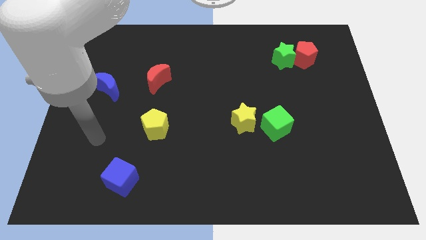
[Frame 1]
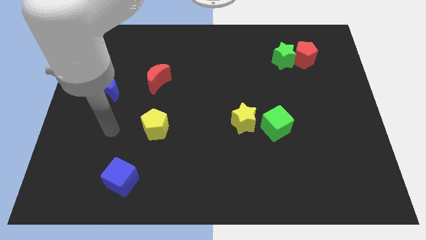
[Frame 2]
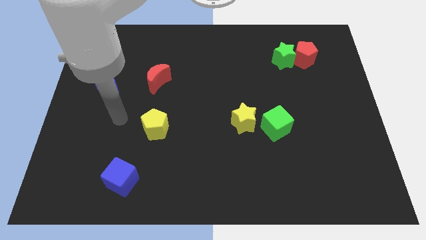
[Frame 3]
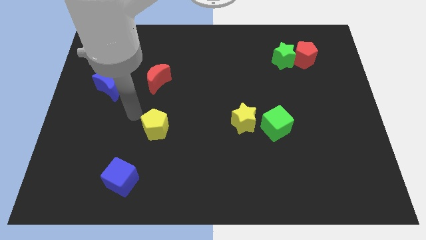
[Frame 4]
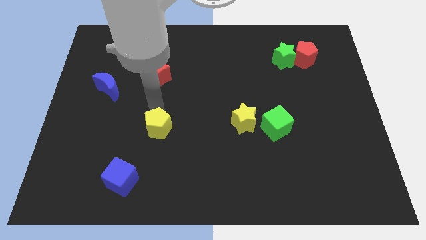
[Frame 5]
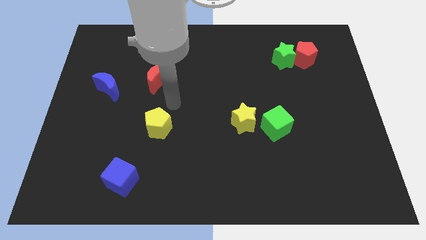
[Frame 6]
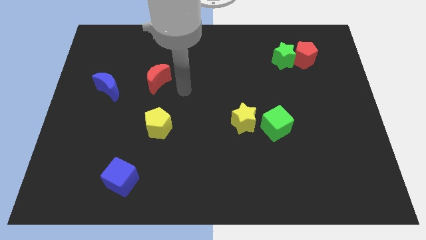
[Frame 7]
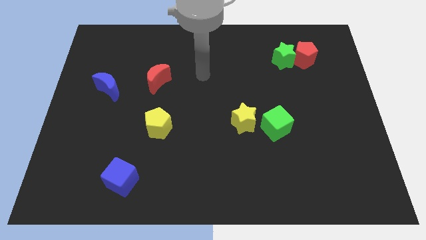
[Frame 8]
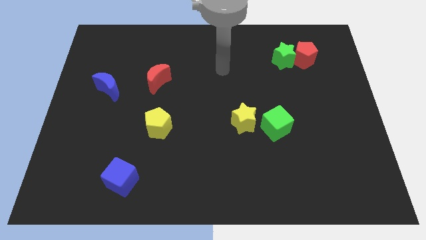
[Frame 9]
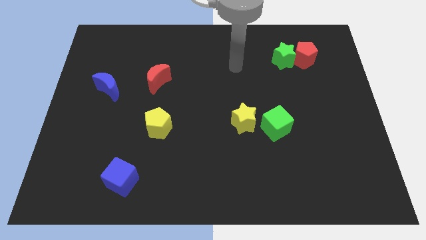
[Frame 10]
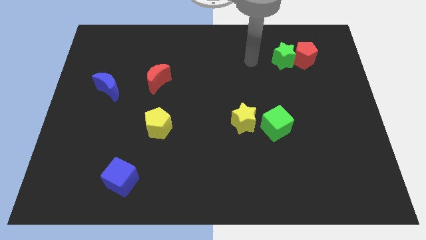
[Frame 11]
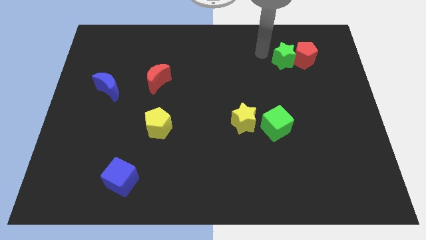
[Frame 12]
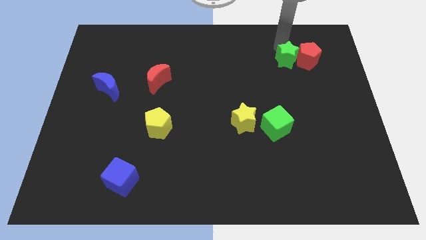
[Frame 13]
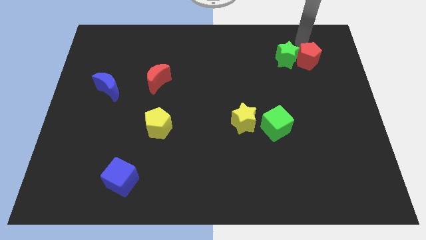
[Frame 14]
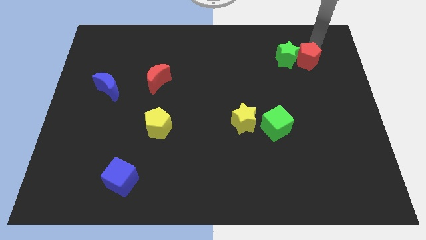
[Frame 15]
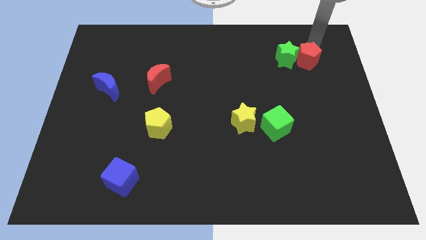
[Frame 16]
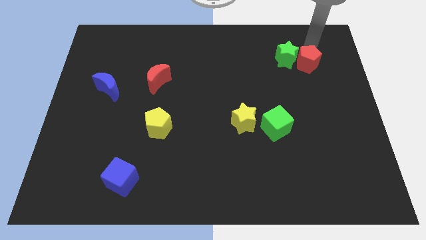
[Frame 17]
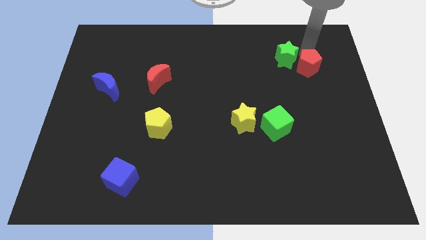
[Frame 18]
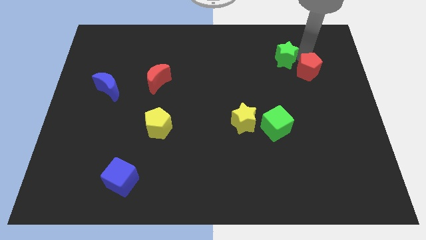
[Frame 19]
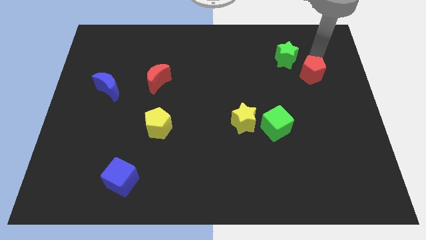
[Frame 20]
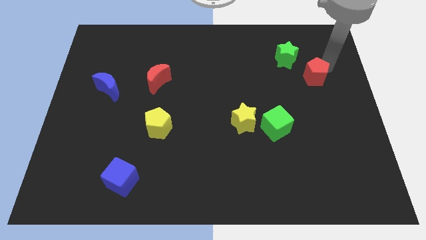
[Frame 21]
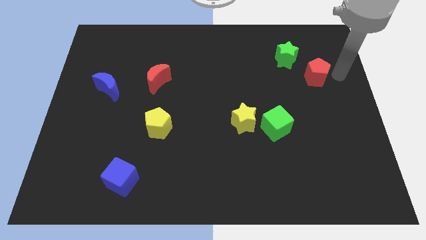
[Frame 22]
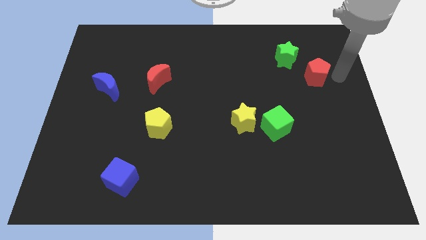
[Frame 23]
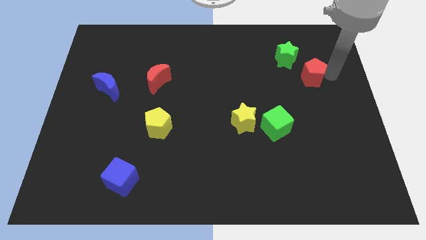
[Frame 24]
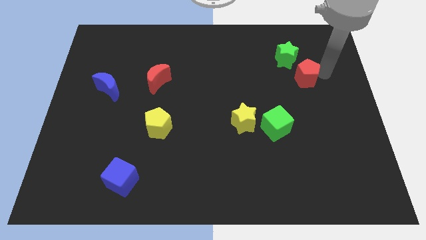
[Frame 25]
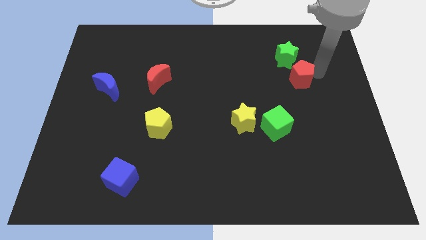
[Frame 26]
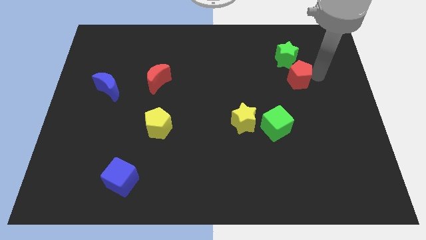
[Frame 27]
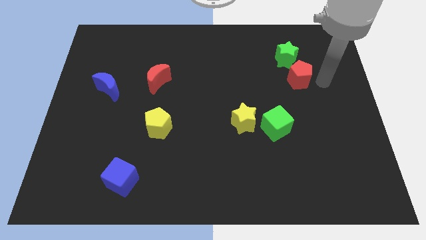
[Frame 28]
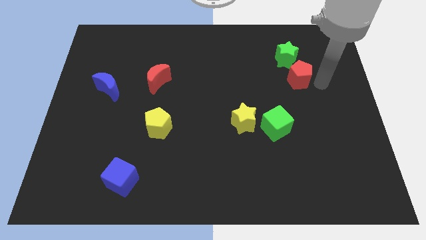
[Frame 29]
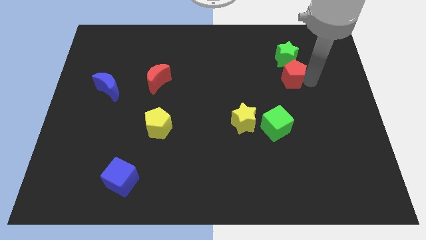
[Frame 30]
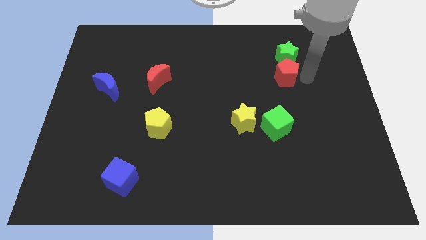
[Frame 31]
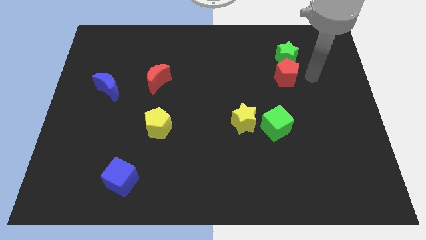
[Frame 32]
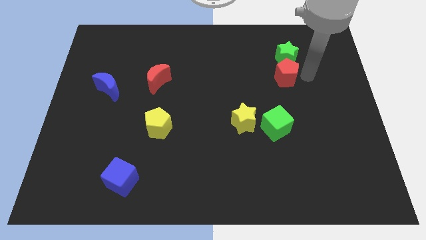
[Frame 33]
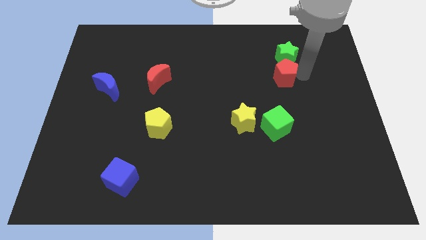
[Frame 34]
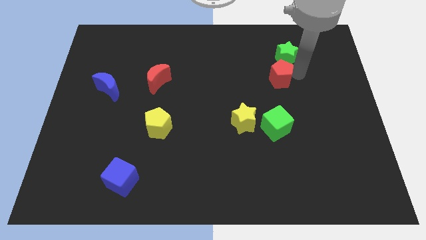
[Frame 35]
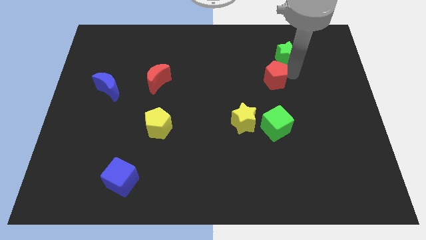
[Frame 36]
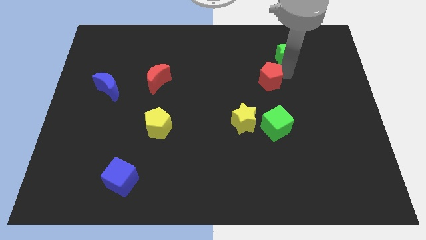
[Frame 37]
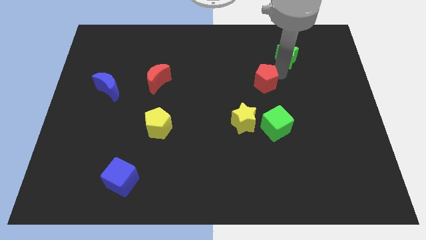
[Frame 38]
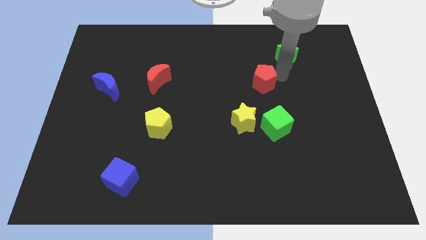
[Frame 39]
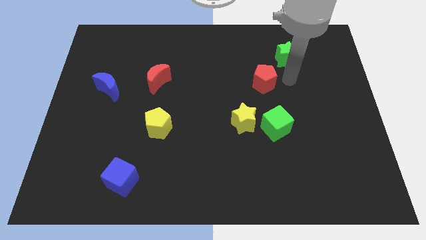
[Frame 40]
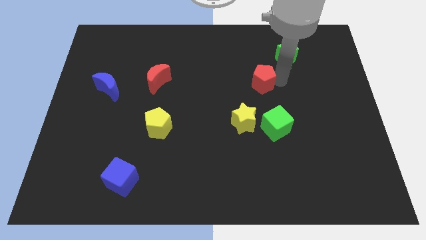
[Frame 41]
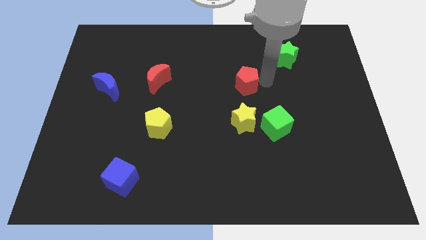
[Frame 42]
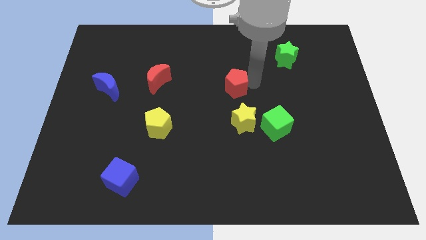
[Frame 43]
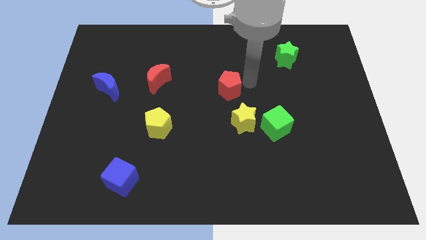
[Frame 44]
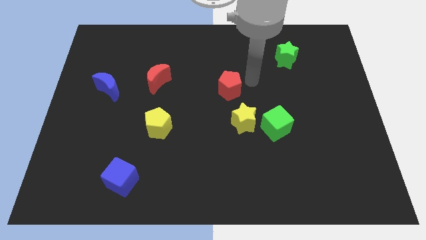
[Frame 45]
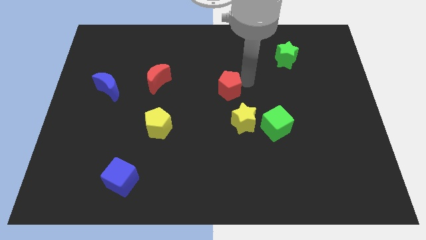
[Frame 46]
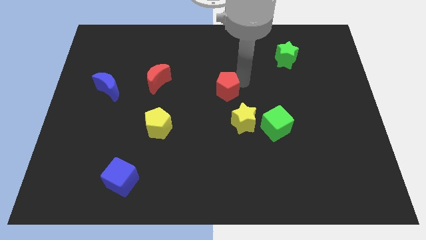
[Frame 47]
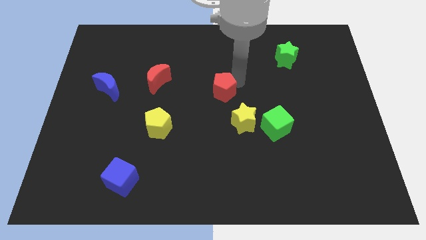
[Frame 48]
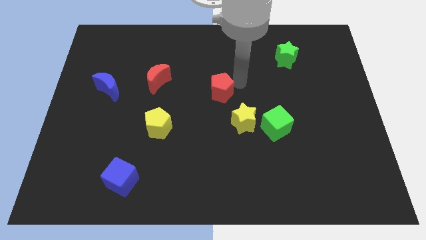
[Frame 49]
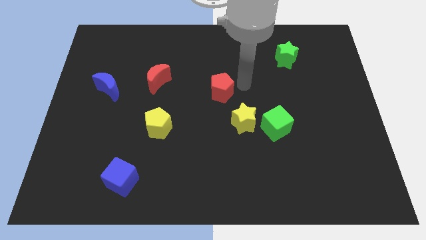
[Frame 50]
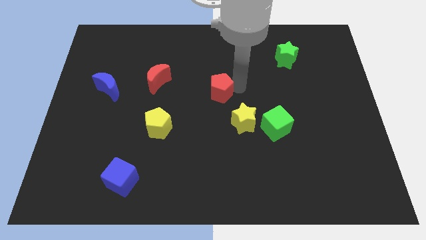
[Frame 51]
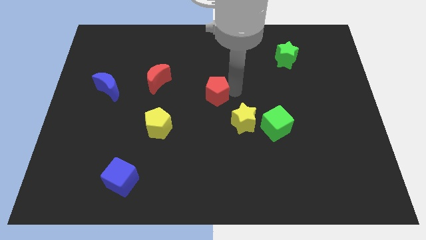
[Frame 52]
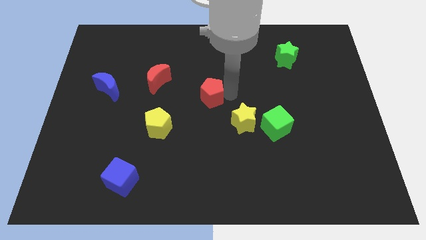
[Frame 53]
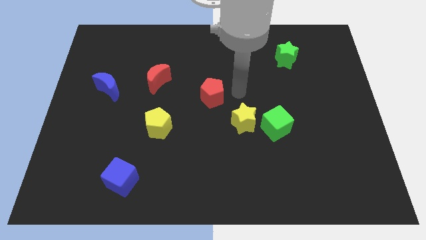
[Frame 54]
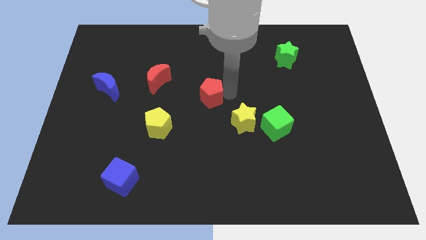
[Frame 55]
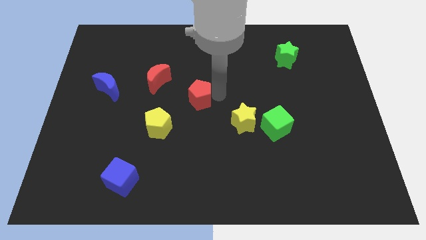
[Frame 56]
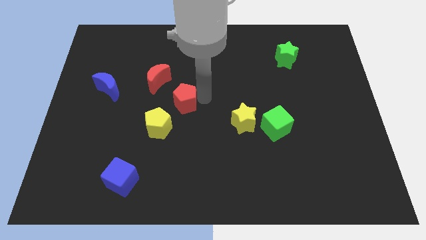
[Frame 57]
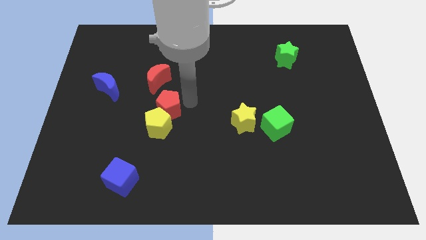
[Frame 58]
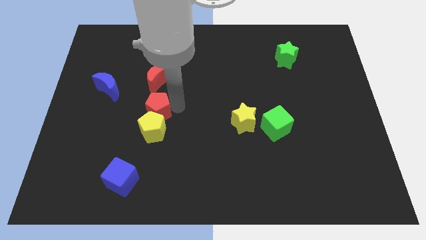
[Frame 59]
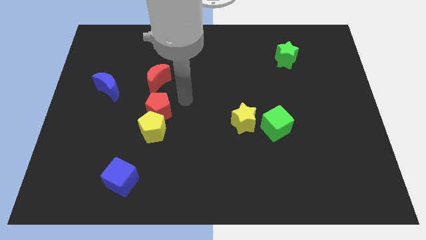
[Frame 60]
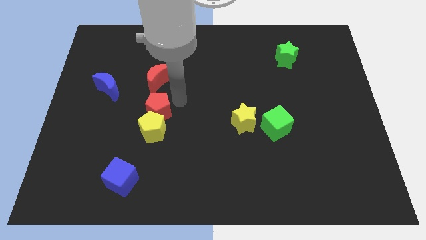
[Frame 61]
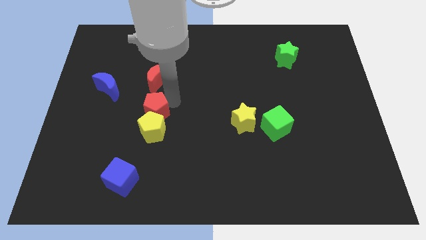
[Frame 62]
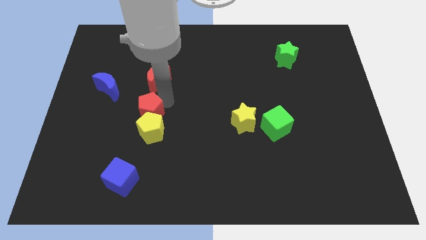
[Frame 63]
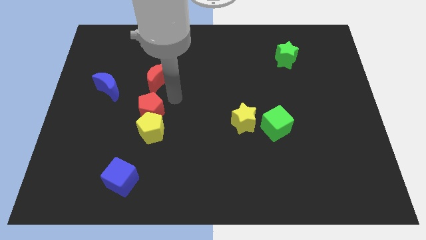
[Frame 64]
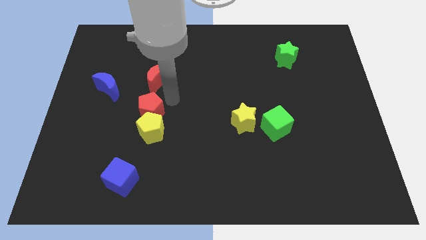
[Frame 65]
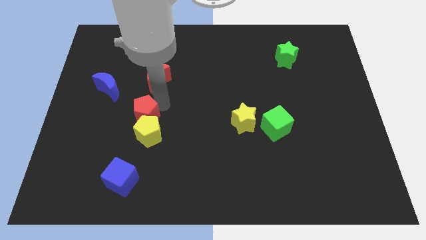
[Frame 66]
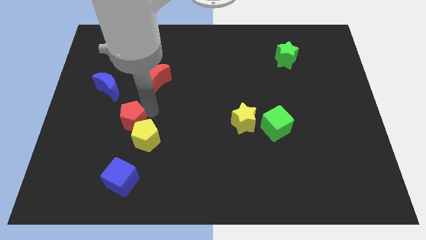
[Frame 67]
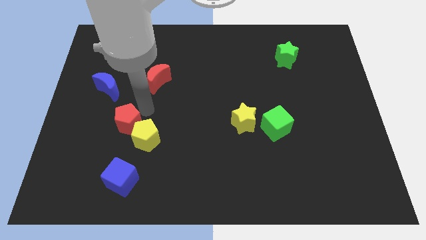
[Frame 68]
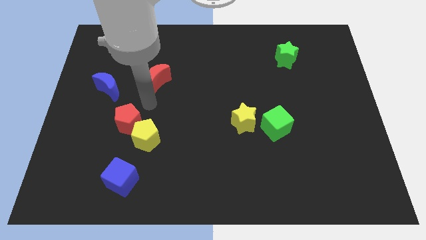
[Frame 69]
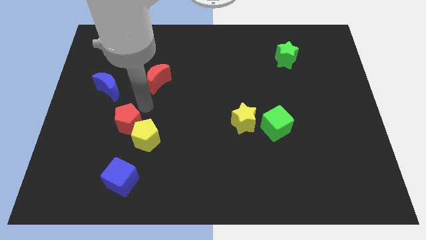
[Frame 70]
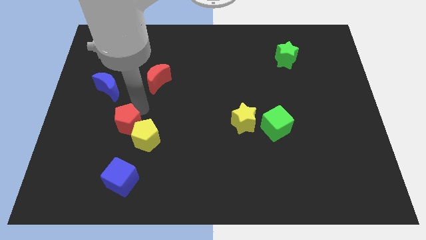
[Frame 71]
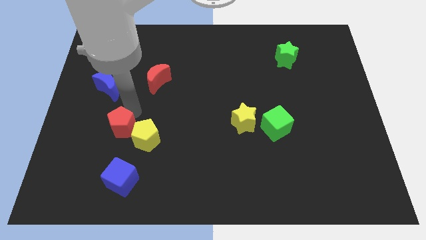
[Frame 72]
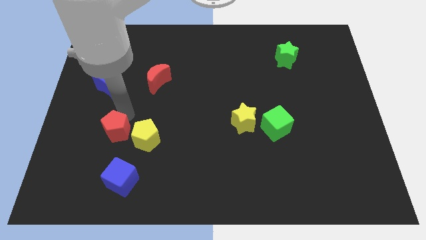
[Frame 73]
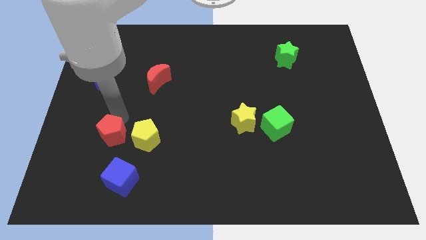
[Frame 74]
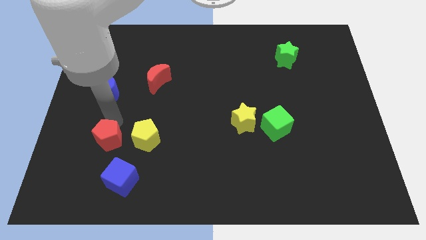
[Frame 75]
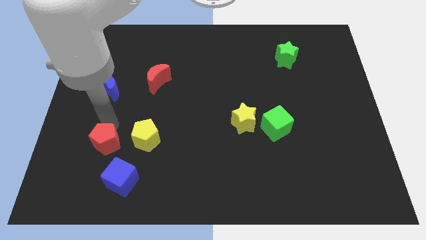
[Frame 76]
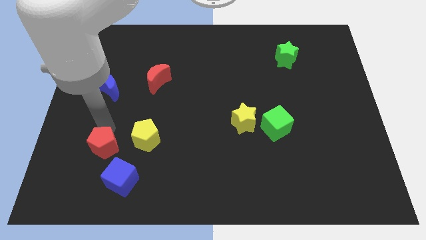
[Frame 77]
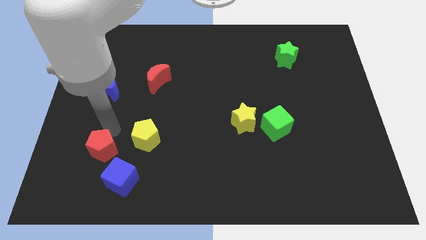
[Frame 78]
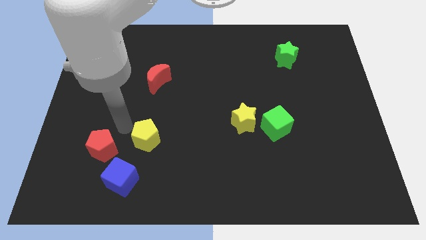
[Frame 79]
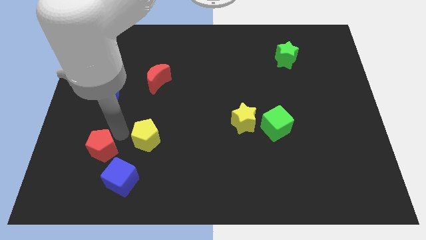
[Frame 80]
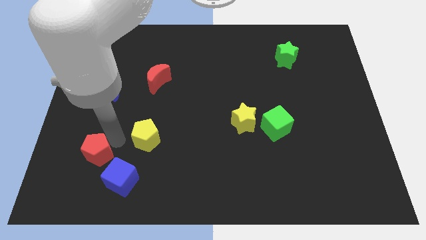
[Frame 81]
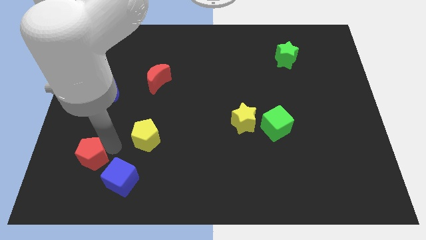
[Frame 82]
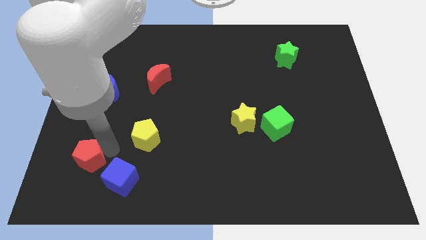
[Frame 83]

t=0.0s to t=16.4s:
push the red pentagon to the left side of the blue cube
